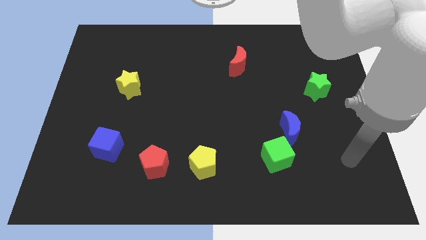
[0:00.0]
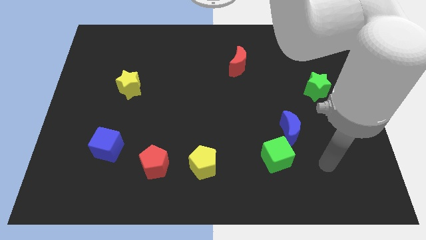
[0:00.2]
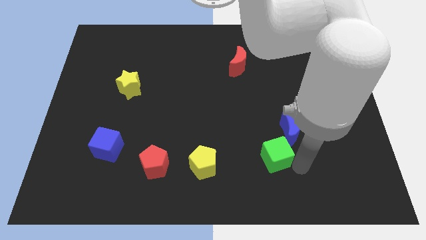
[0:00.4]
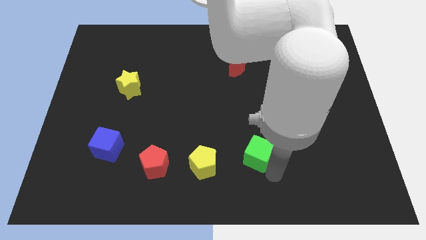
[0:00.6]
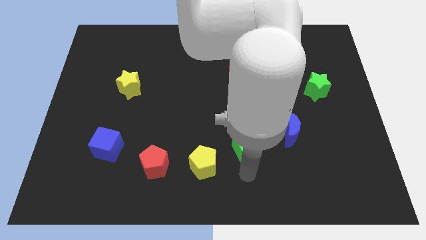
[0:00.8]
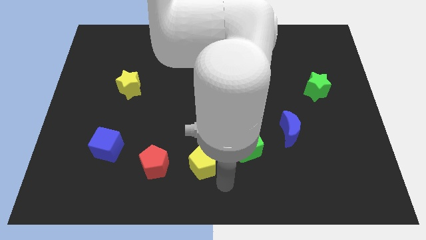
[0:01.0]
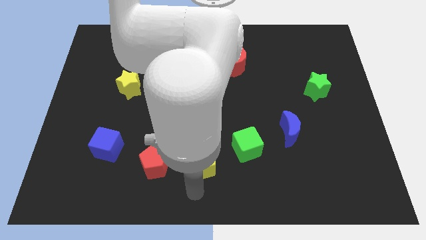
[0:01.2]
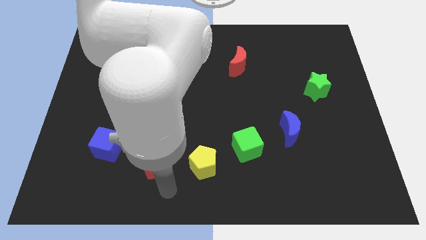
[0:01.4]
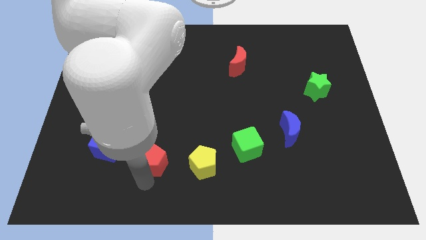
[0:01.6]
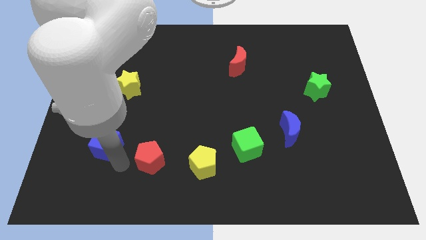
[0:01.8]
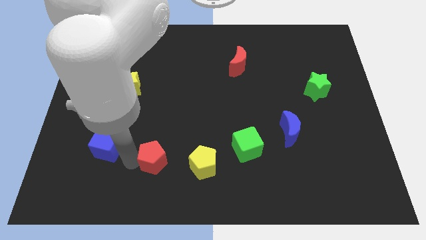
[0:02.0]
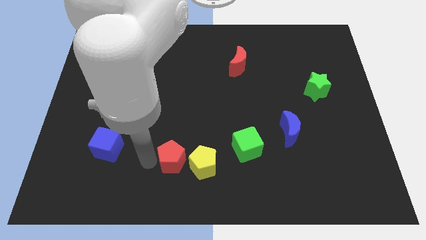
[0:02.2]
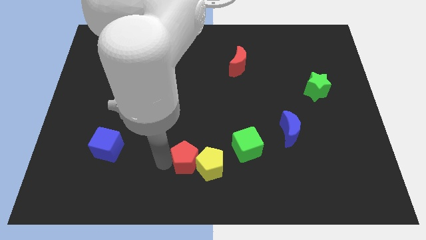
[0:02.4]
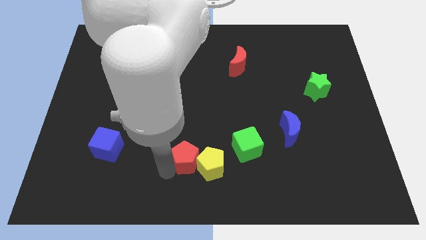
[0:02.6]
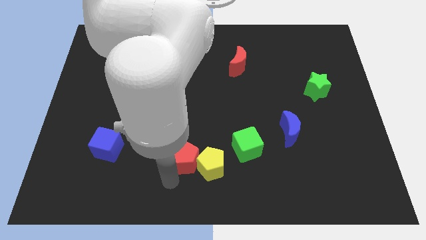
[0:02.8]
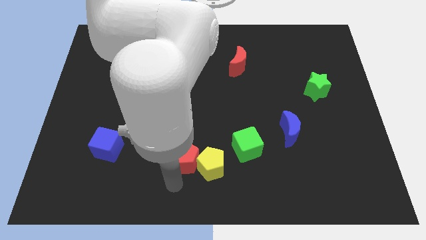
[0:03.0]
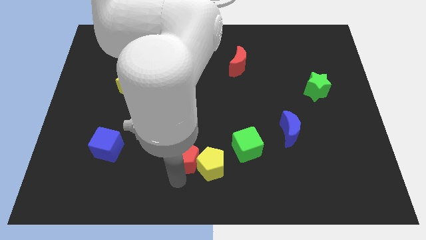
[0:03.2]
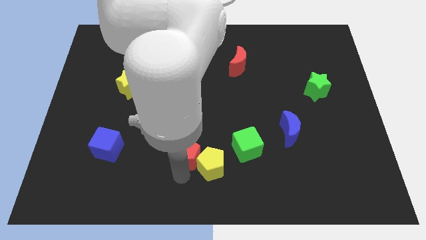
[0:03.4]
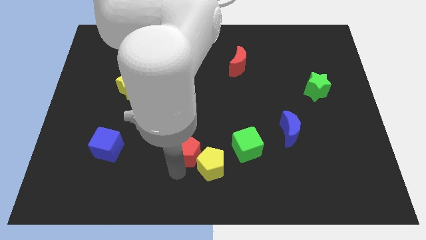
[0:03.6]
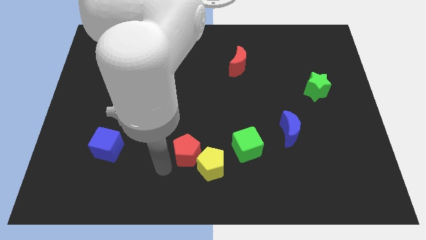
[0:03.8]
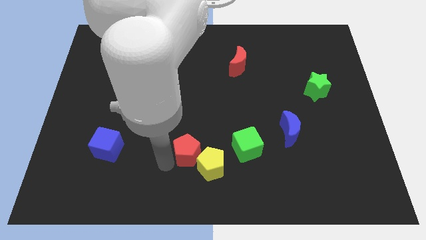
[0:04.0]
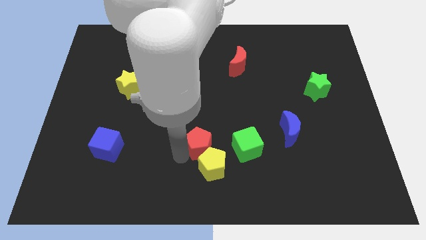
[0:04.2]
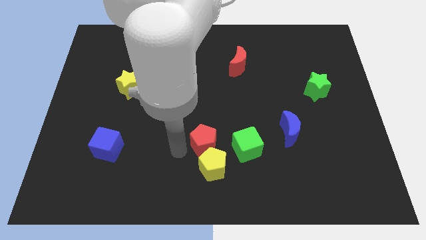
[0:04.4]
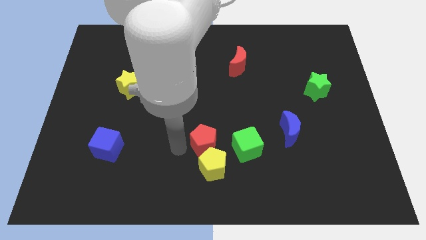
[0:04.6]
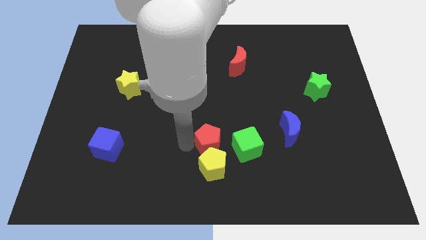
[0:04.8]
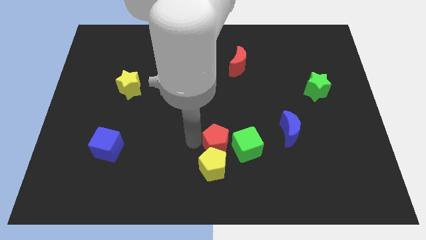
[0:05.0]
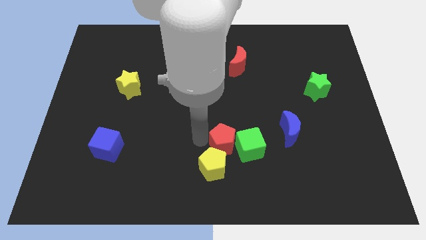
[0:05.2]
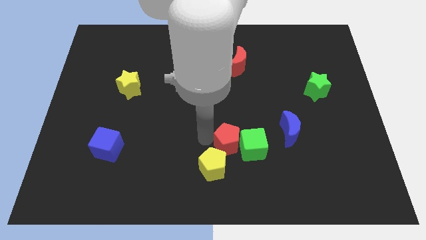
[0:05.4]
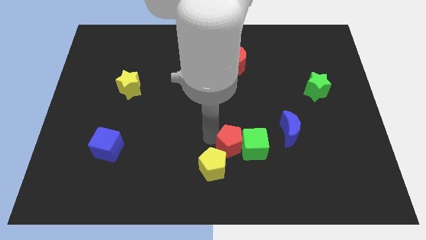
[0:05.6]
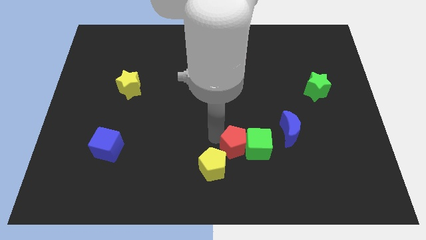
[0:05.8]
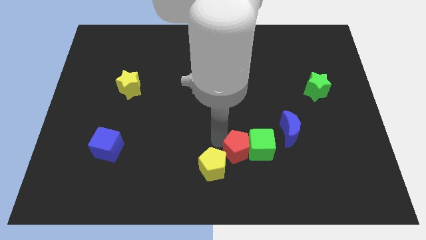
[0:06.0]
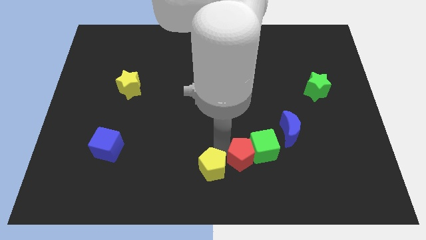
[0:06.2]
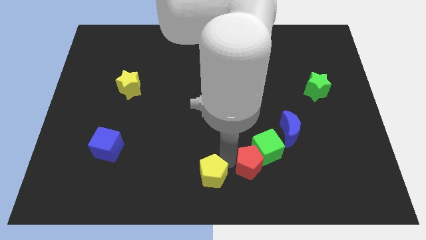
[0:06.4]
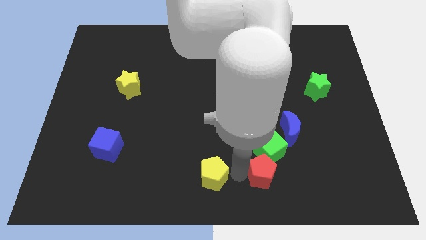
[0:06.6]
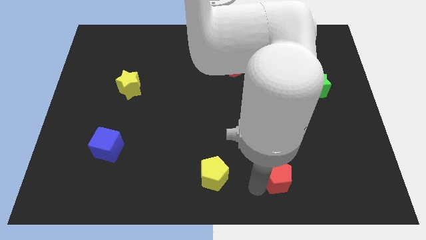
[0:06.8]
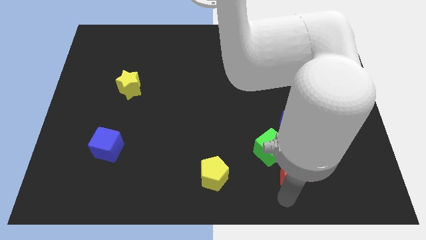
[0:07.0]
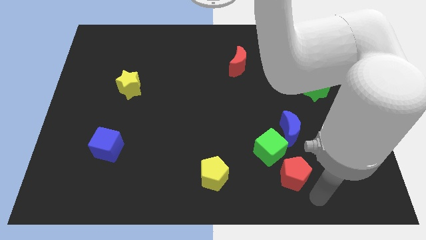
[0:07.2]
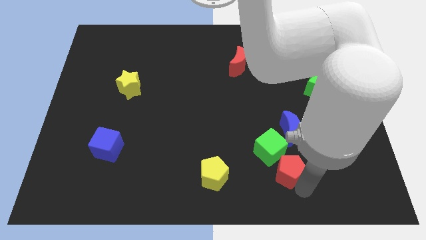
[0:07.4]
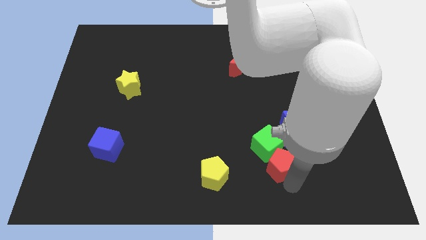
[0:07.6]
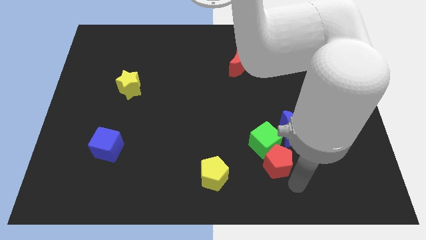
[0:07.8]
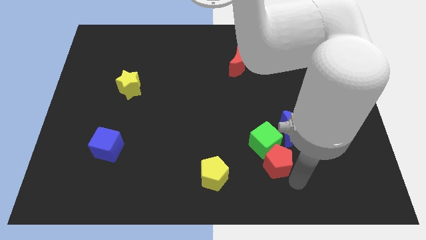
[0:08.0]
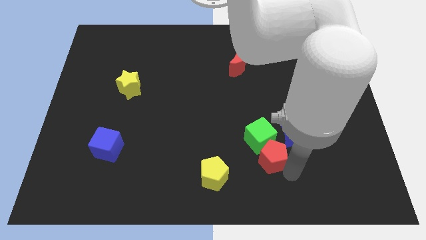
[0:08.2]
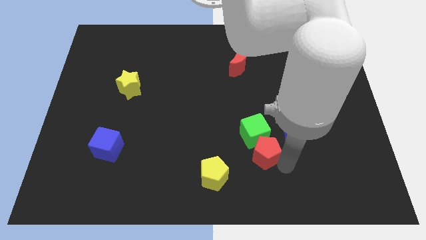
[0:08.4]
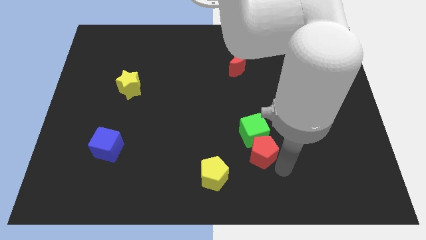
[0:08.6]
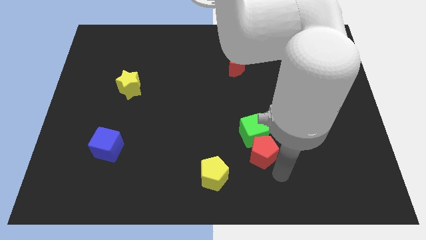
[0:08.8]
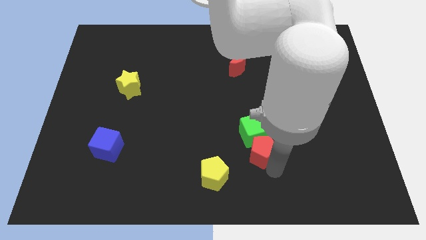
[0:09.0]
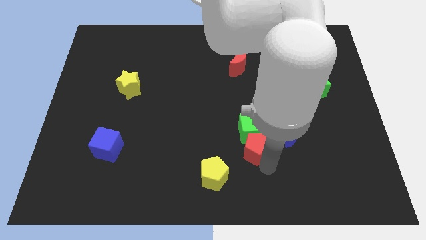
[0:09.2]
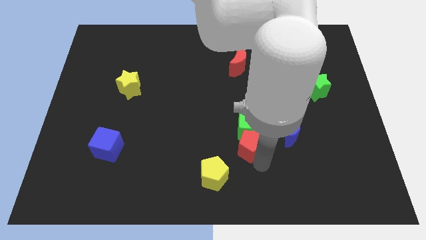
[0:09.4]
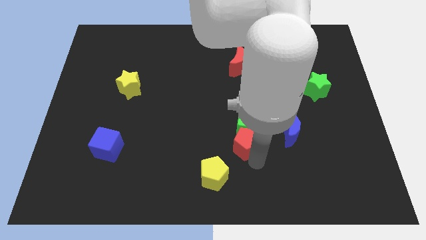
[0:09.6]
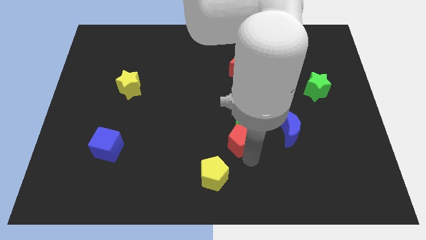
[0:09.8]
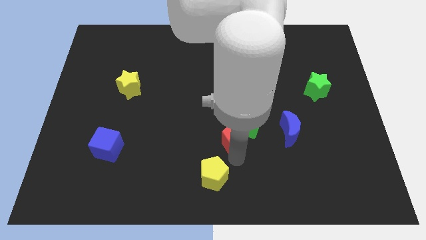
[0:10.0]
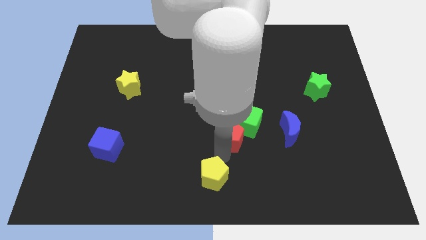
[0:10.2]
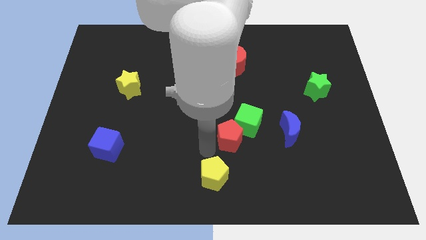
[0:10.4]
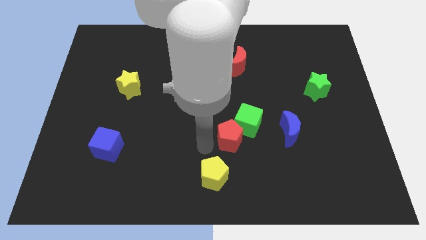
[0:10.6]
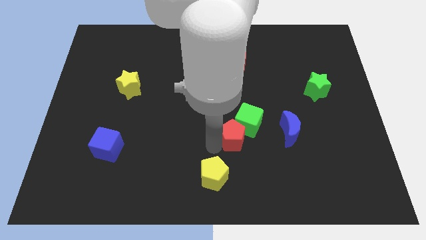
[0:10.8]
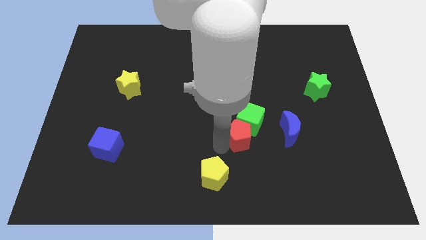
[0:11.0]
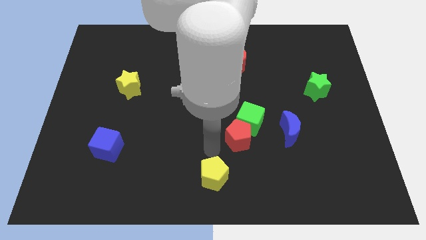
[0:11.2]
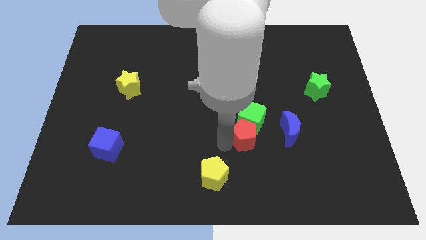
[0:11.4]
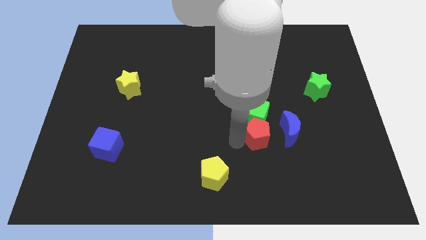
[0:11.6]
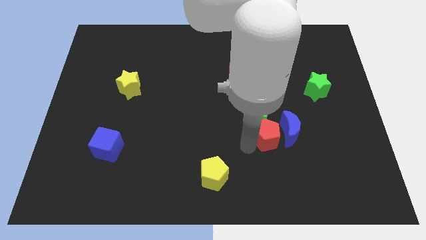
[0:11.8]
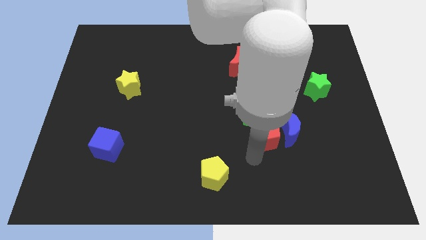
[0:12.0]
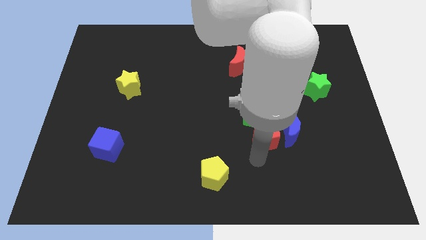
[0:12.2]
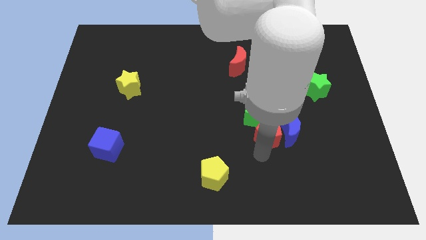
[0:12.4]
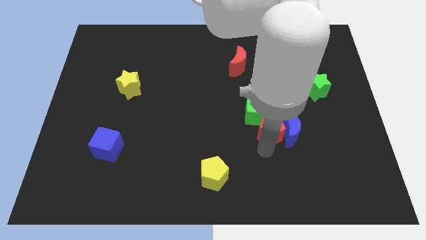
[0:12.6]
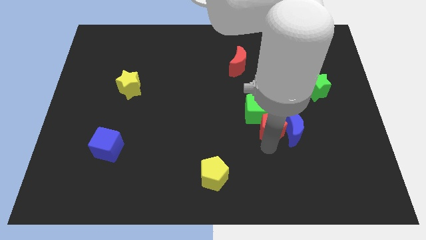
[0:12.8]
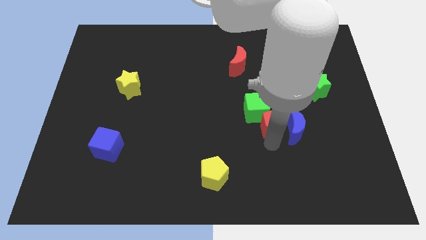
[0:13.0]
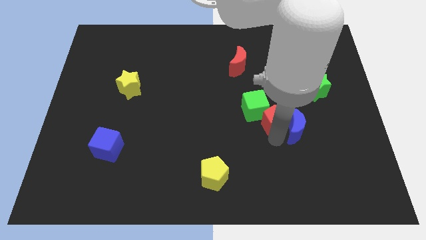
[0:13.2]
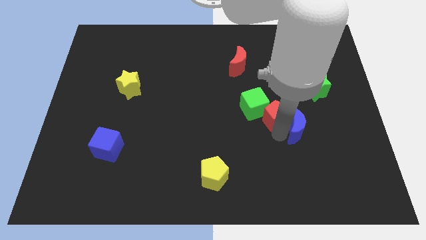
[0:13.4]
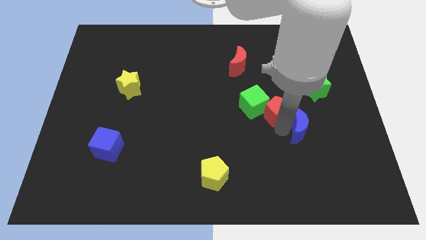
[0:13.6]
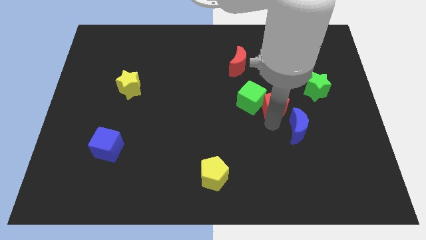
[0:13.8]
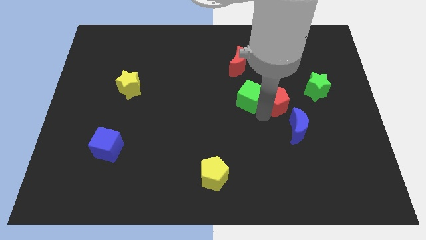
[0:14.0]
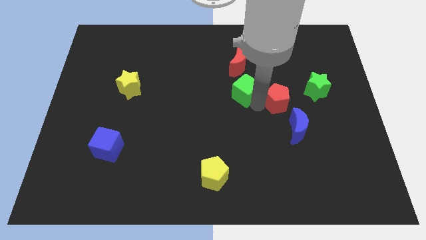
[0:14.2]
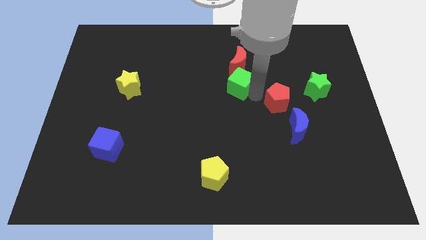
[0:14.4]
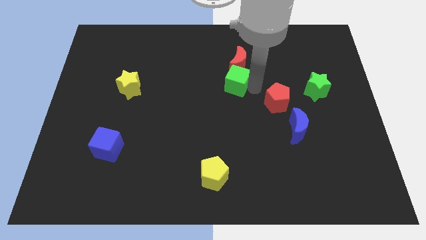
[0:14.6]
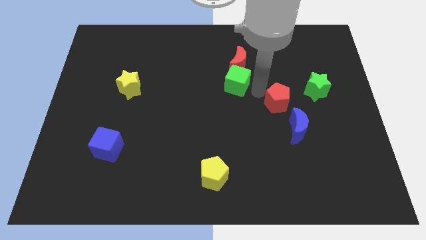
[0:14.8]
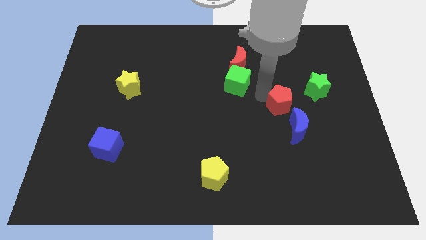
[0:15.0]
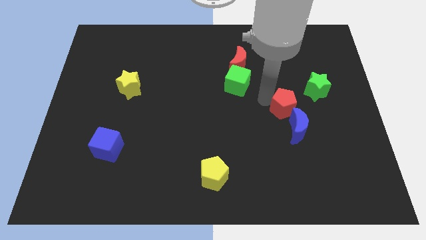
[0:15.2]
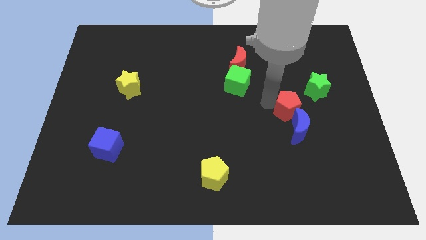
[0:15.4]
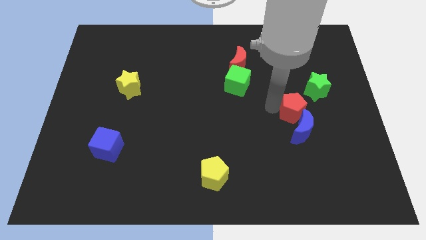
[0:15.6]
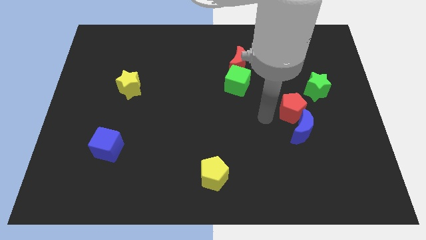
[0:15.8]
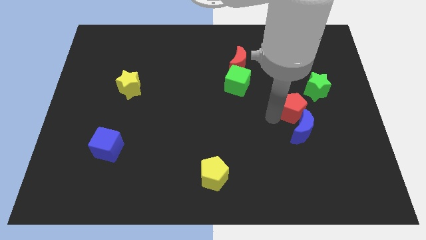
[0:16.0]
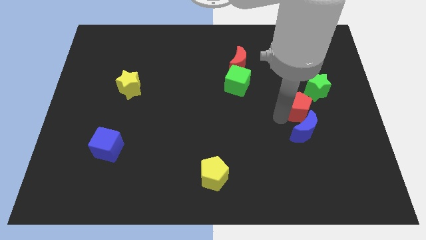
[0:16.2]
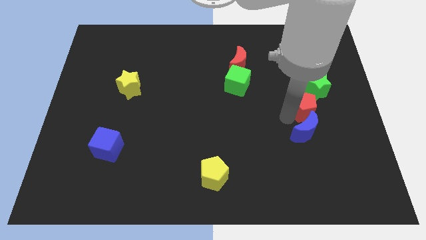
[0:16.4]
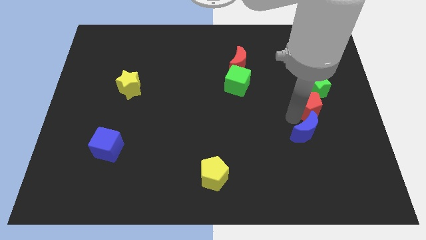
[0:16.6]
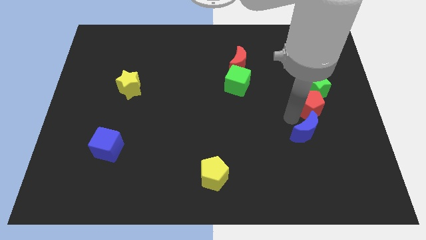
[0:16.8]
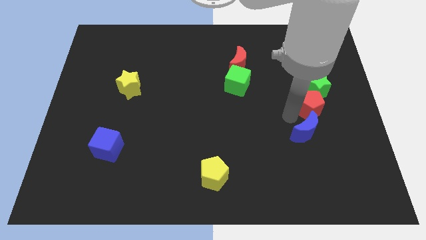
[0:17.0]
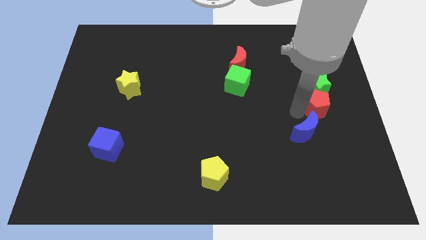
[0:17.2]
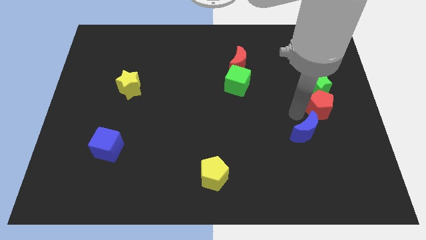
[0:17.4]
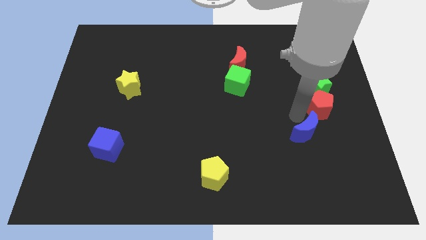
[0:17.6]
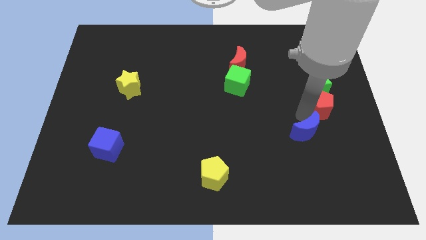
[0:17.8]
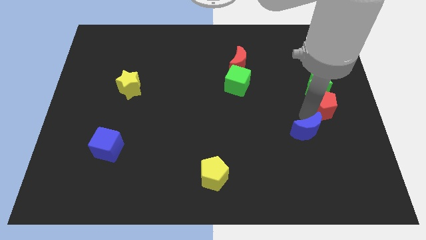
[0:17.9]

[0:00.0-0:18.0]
push the red pentagon to the right side of the board
